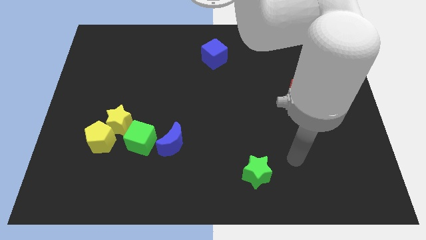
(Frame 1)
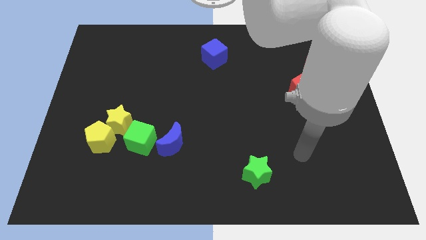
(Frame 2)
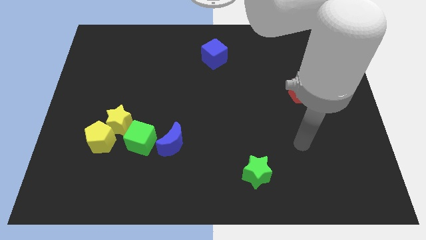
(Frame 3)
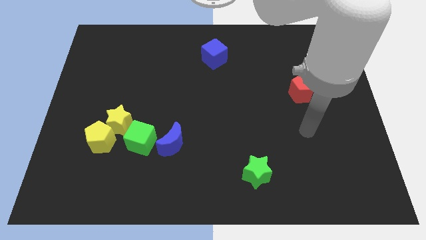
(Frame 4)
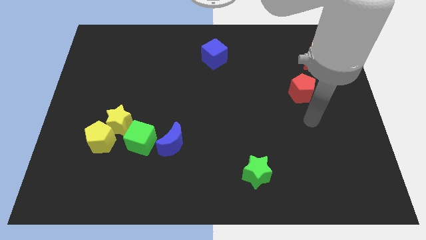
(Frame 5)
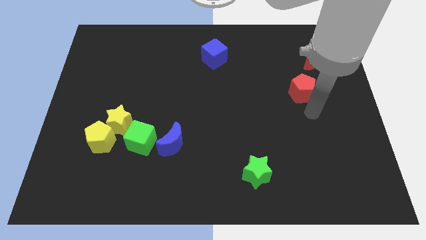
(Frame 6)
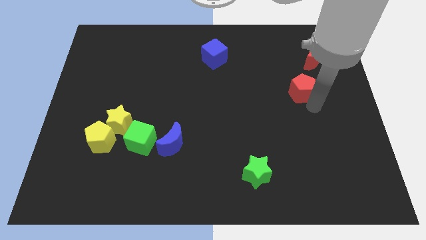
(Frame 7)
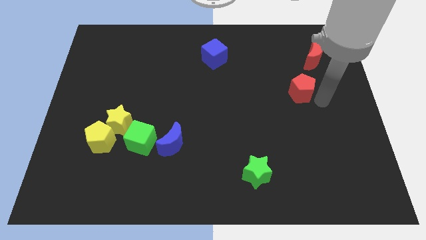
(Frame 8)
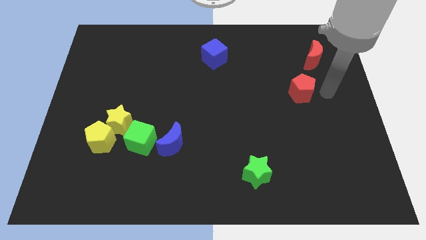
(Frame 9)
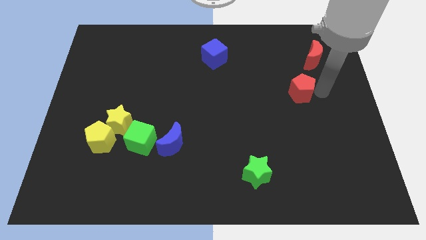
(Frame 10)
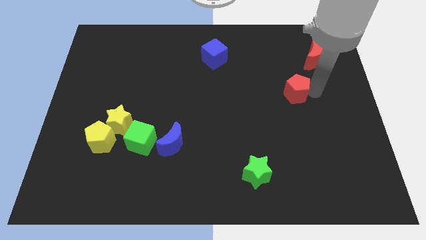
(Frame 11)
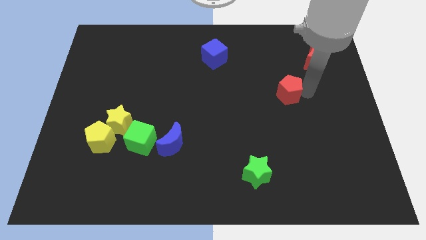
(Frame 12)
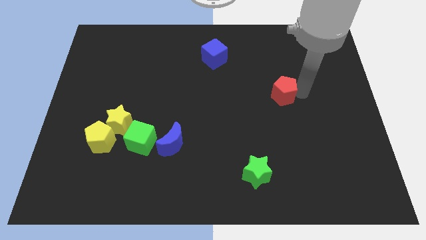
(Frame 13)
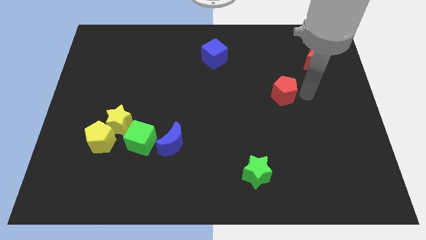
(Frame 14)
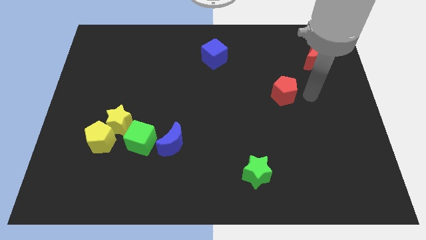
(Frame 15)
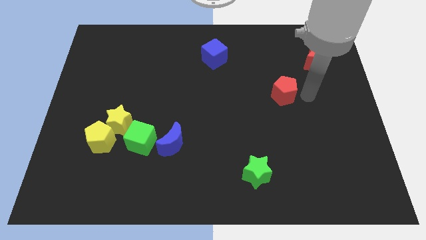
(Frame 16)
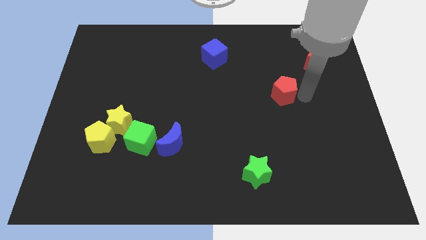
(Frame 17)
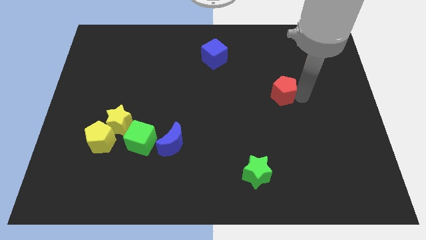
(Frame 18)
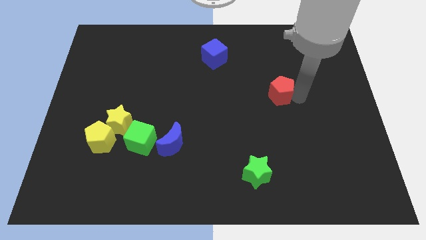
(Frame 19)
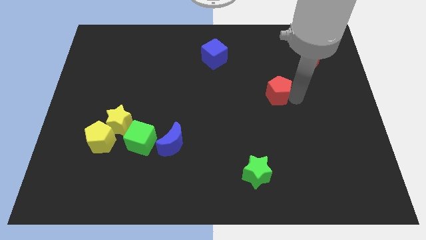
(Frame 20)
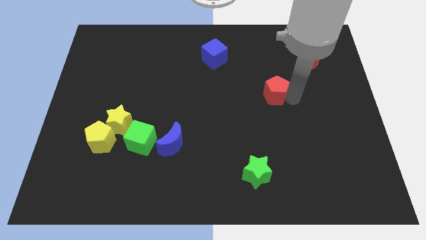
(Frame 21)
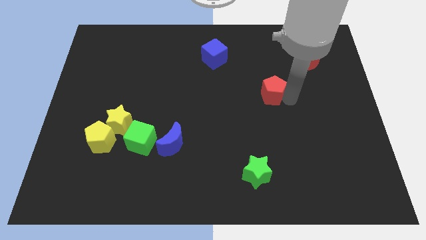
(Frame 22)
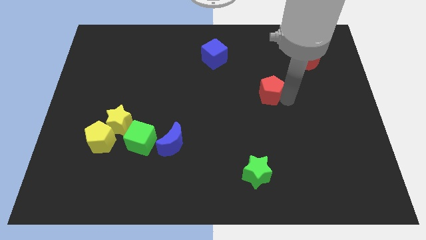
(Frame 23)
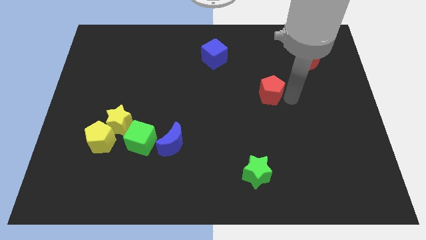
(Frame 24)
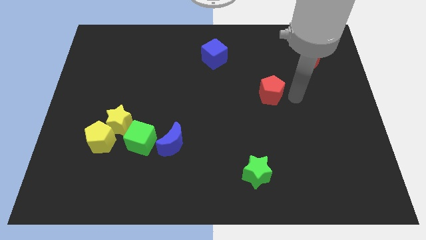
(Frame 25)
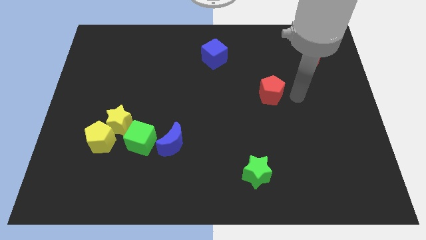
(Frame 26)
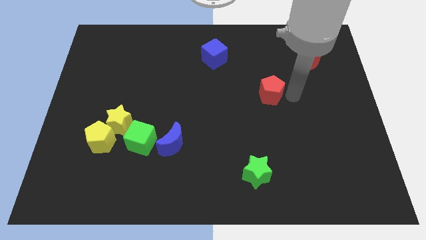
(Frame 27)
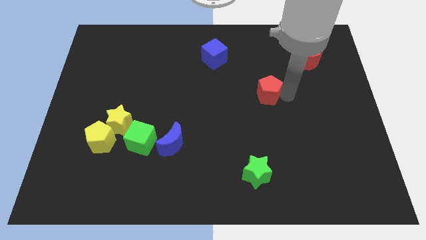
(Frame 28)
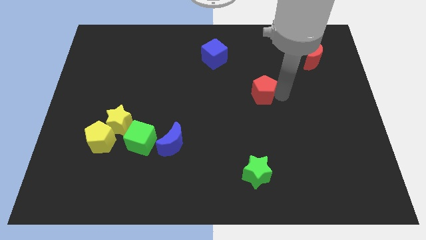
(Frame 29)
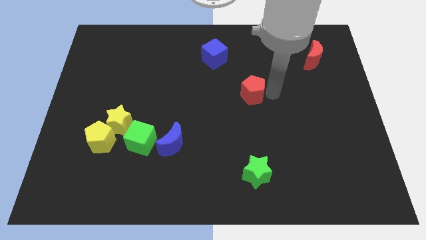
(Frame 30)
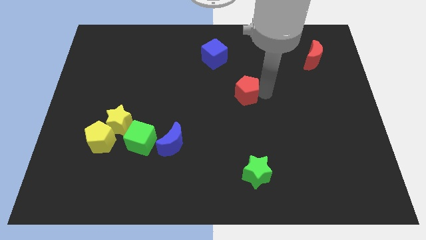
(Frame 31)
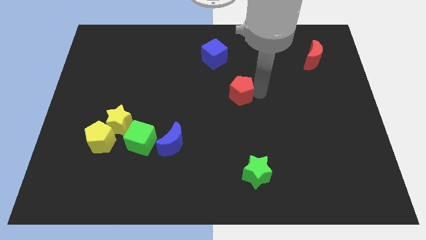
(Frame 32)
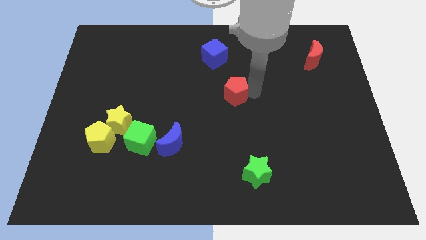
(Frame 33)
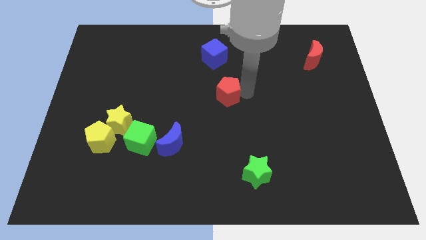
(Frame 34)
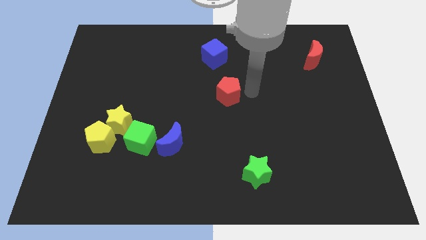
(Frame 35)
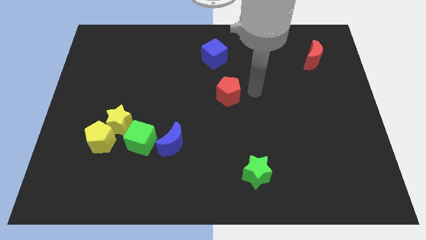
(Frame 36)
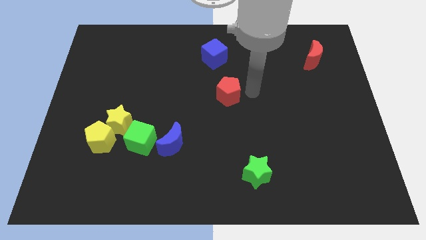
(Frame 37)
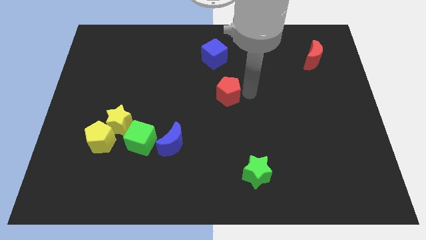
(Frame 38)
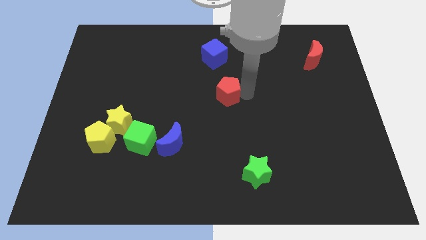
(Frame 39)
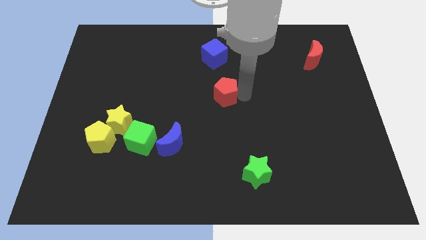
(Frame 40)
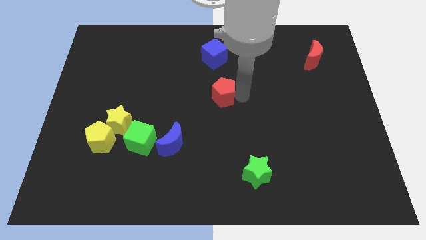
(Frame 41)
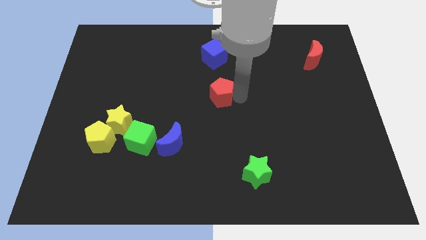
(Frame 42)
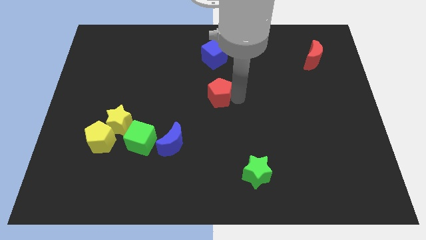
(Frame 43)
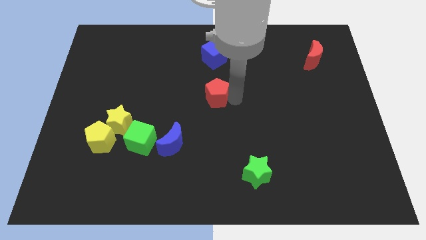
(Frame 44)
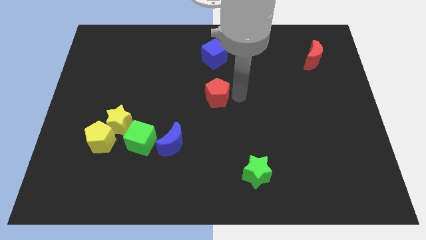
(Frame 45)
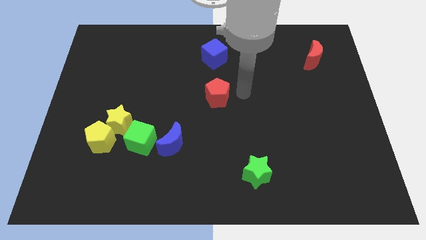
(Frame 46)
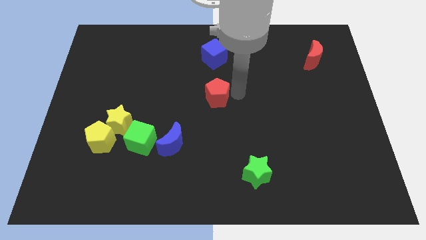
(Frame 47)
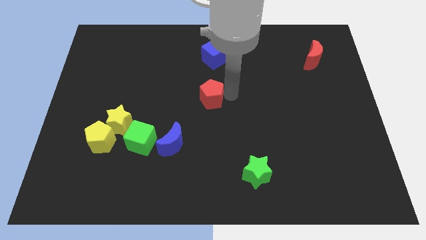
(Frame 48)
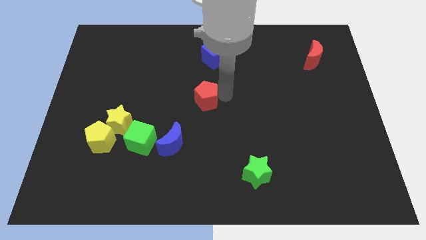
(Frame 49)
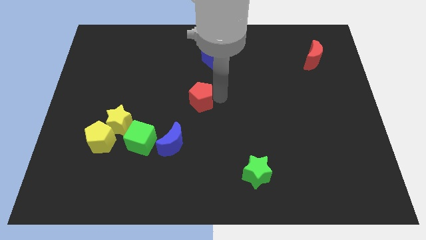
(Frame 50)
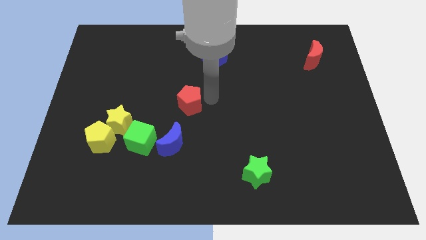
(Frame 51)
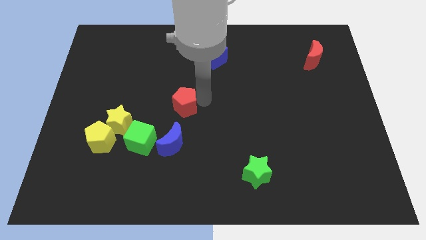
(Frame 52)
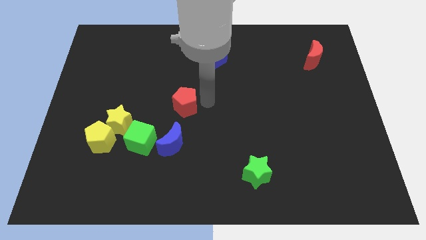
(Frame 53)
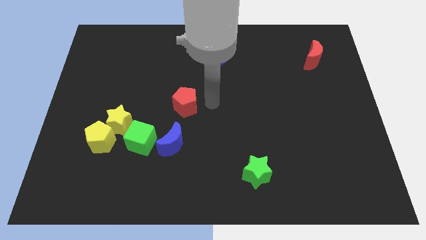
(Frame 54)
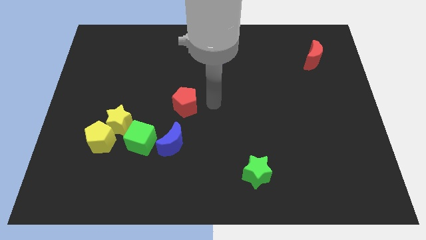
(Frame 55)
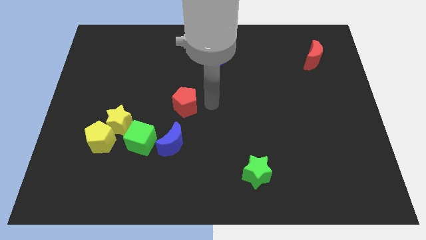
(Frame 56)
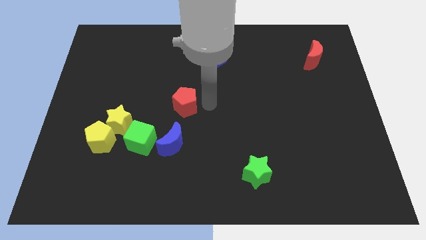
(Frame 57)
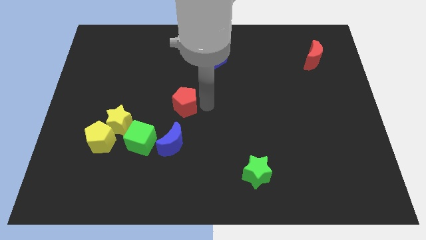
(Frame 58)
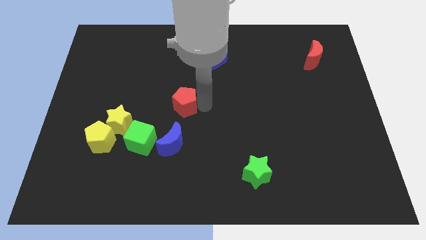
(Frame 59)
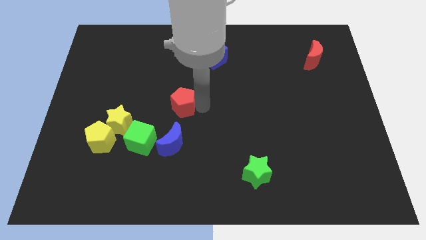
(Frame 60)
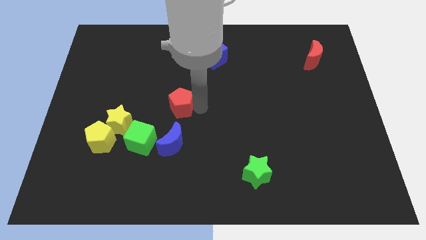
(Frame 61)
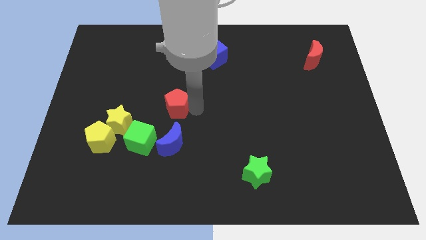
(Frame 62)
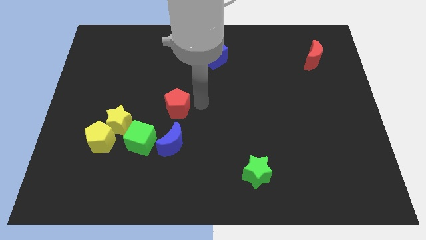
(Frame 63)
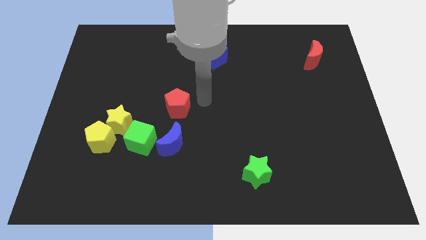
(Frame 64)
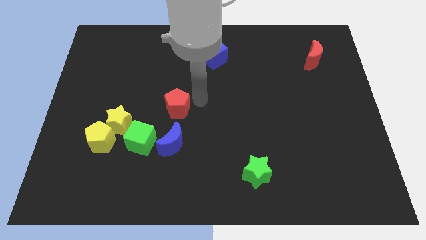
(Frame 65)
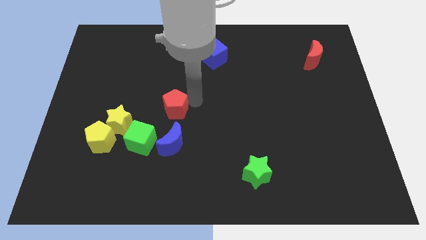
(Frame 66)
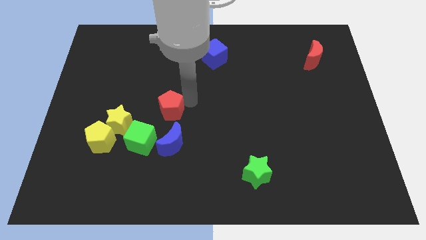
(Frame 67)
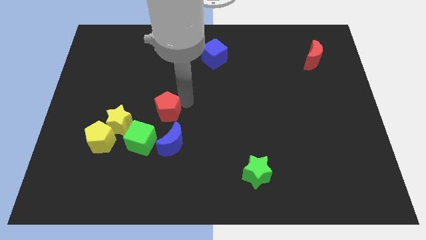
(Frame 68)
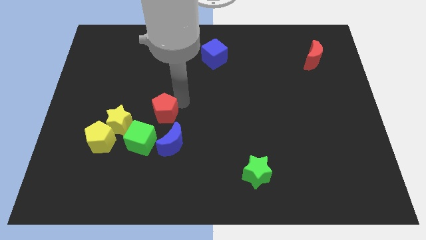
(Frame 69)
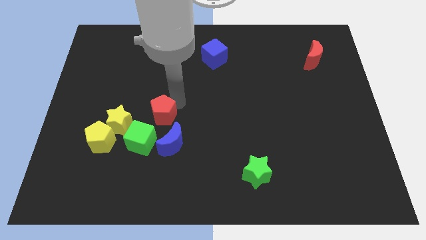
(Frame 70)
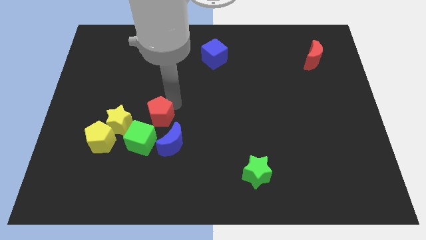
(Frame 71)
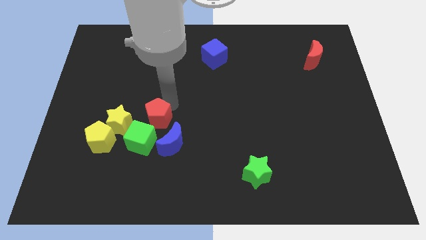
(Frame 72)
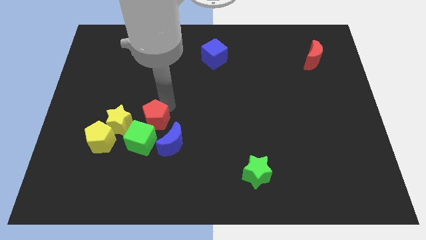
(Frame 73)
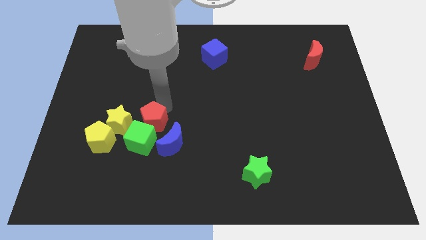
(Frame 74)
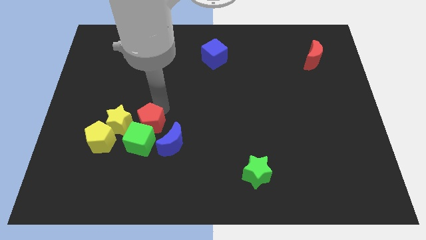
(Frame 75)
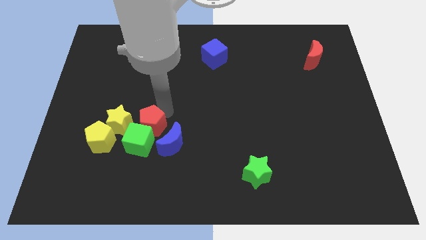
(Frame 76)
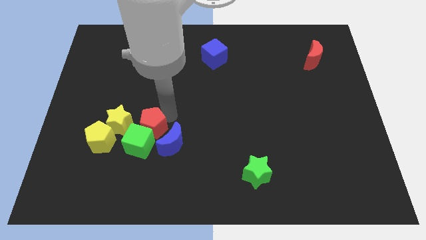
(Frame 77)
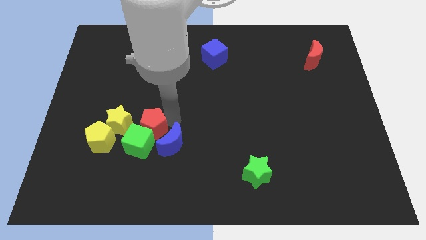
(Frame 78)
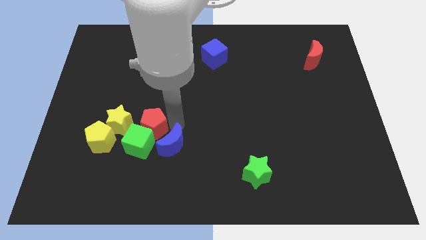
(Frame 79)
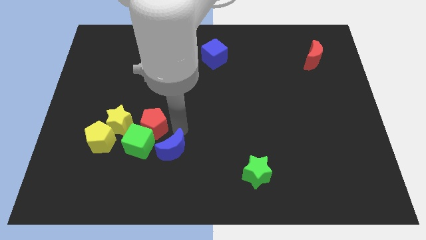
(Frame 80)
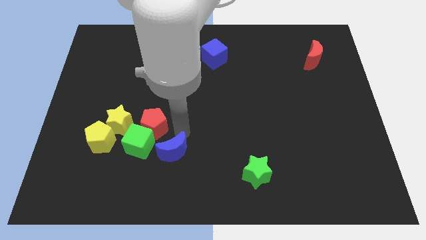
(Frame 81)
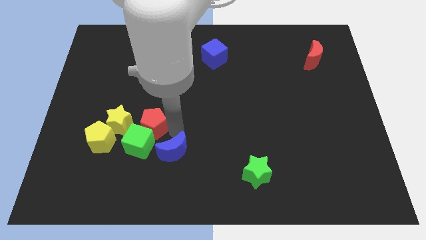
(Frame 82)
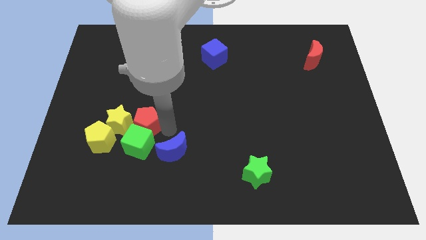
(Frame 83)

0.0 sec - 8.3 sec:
move the red pentagon to the top right side of the yellow pentagon
